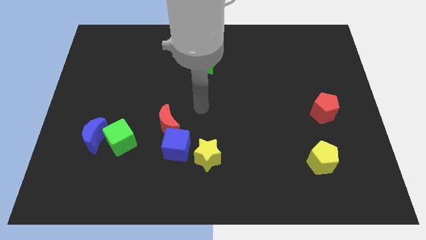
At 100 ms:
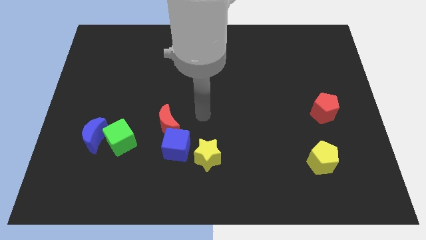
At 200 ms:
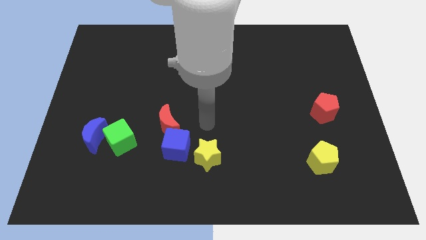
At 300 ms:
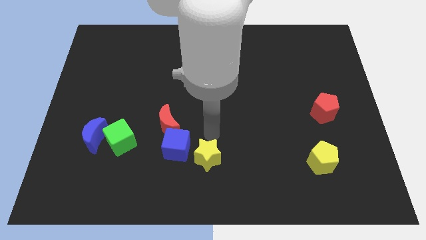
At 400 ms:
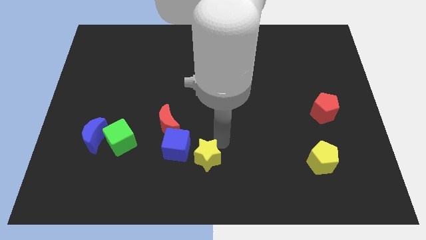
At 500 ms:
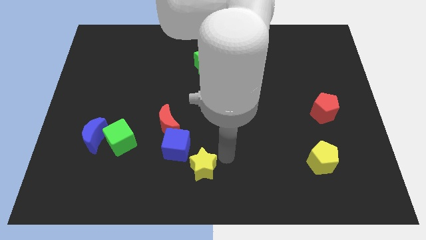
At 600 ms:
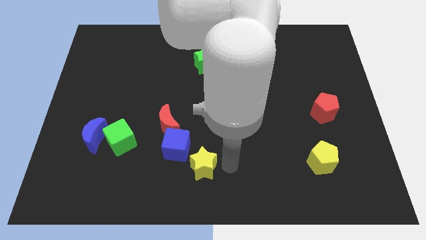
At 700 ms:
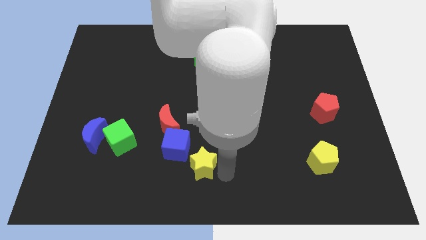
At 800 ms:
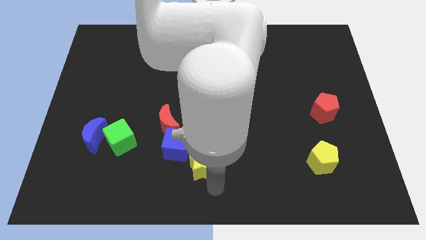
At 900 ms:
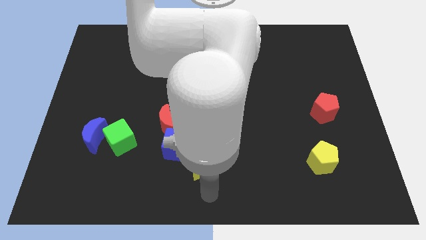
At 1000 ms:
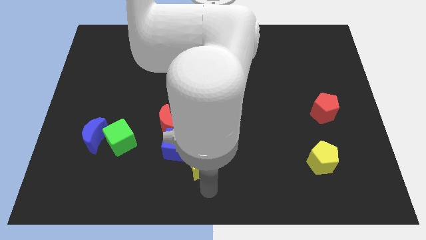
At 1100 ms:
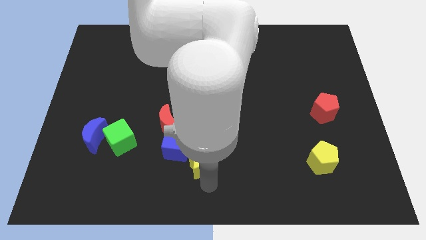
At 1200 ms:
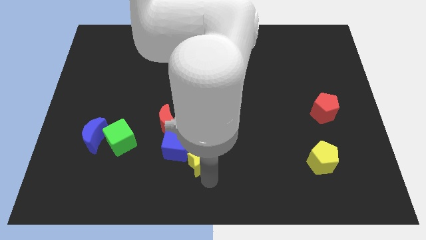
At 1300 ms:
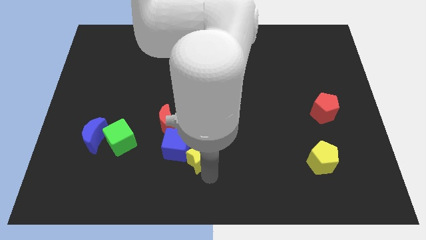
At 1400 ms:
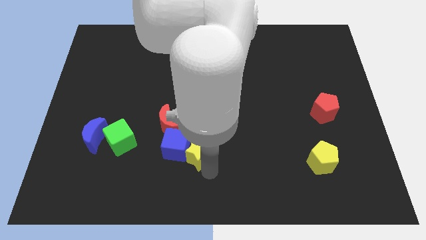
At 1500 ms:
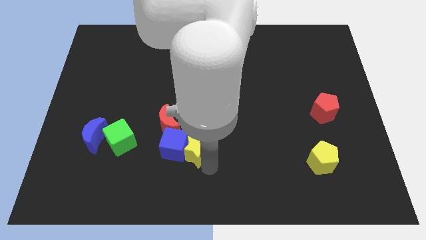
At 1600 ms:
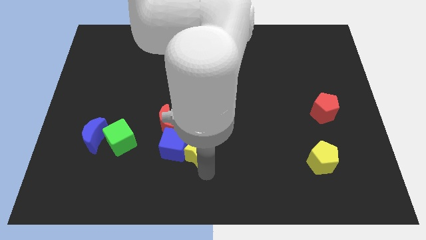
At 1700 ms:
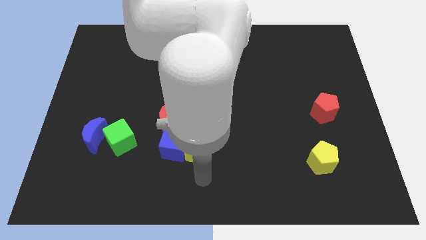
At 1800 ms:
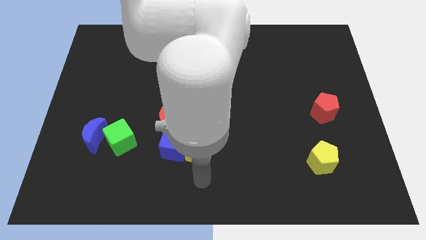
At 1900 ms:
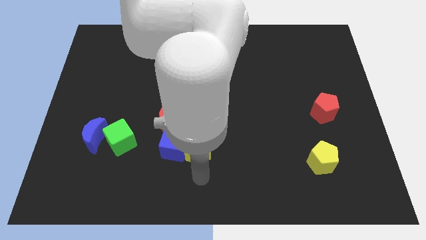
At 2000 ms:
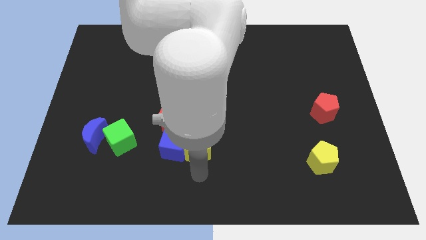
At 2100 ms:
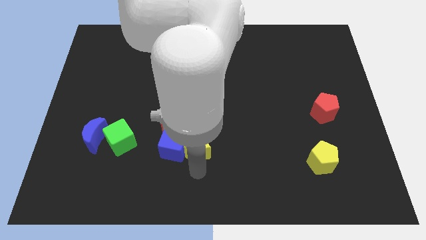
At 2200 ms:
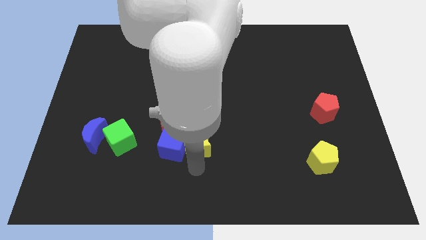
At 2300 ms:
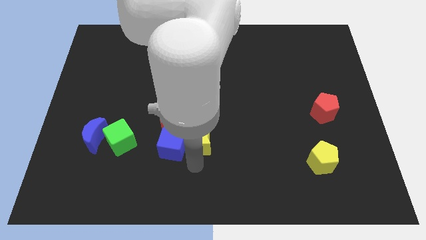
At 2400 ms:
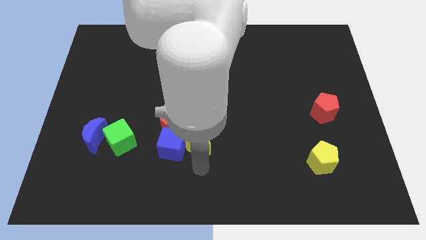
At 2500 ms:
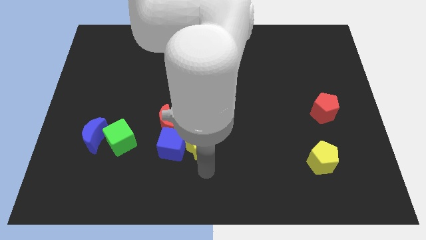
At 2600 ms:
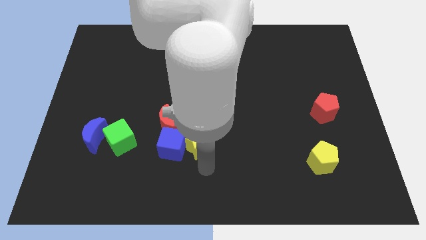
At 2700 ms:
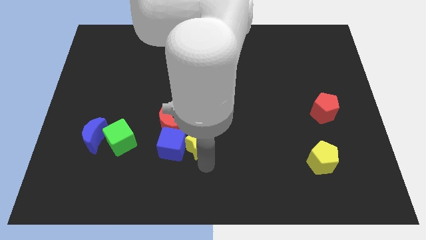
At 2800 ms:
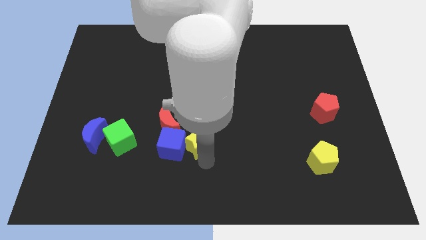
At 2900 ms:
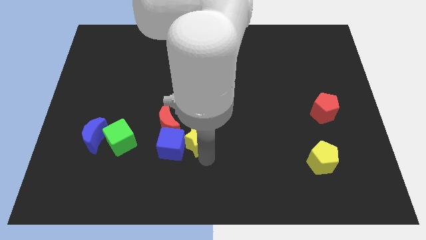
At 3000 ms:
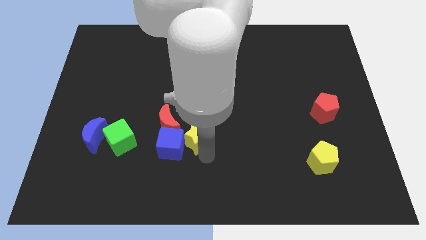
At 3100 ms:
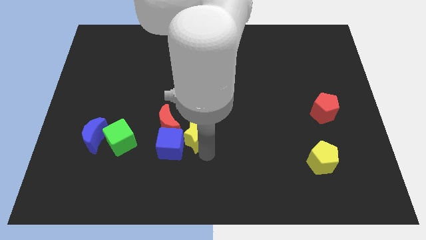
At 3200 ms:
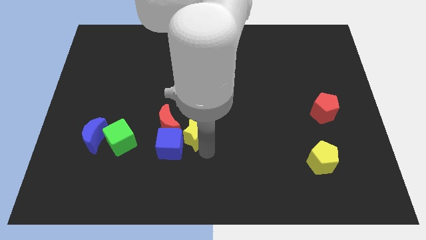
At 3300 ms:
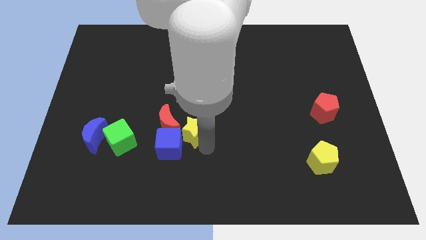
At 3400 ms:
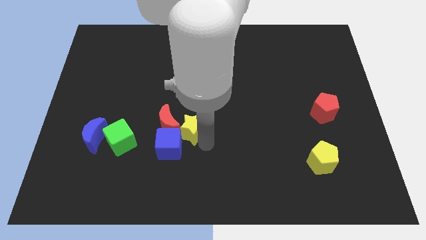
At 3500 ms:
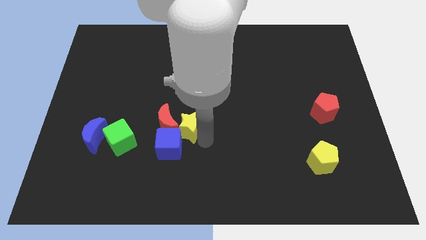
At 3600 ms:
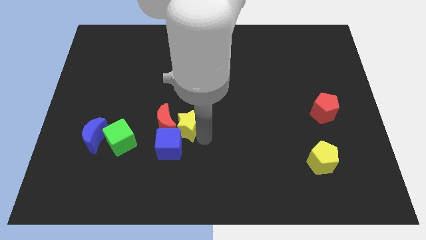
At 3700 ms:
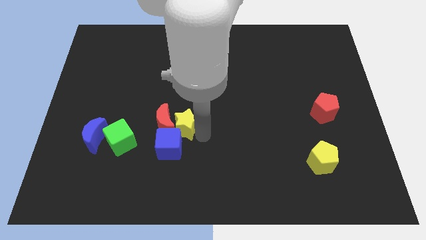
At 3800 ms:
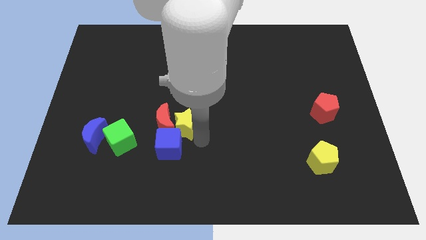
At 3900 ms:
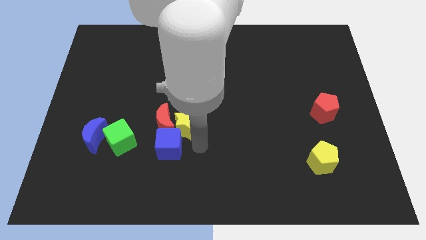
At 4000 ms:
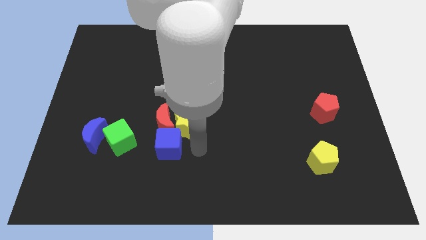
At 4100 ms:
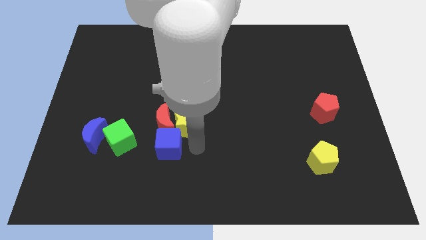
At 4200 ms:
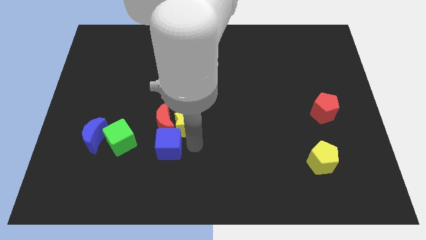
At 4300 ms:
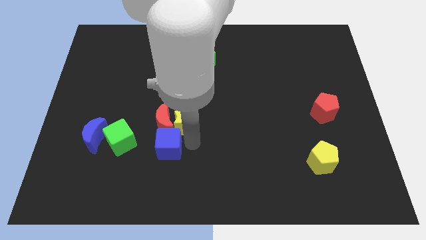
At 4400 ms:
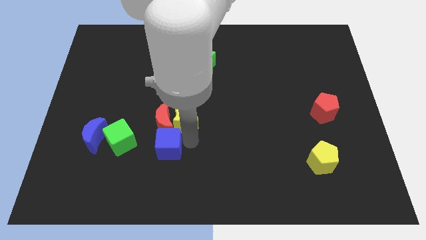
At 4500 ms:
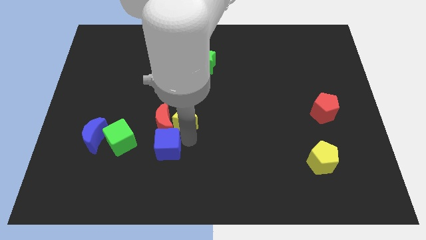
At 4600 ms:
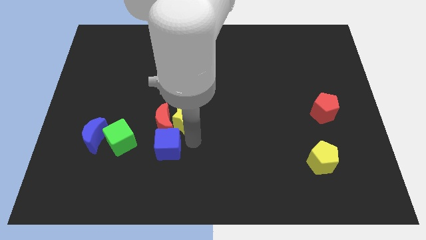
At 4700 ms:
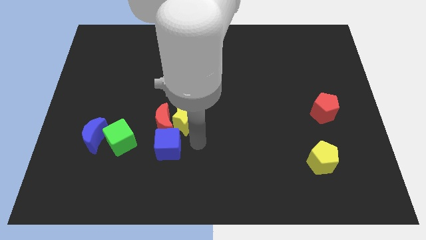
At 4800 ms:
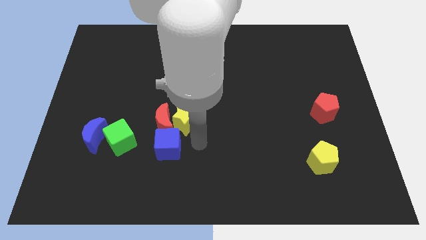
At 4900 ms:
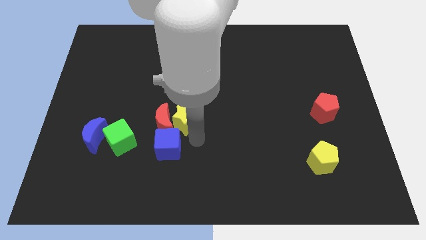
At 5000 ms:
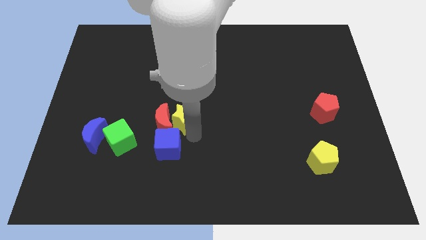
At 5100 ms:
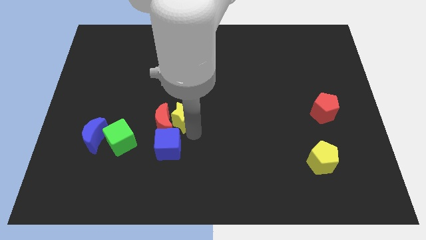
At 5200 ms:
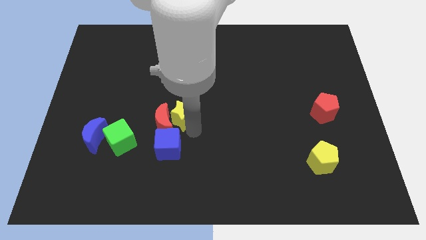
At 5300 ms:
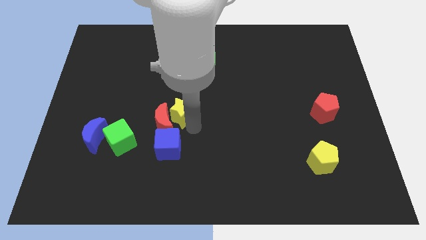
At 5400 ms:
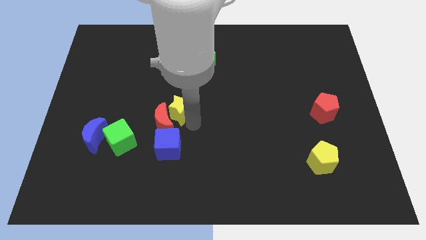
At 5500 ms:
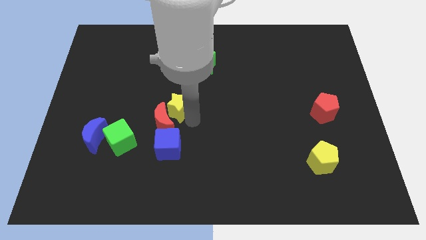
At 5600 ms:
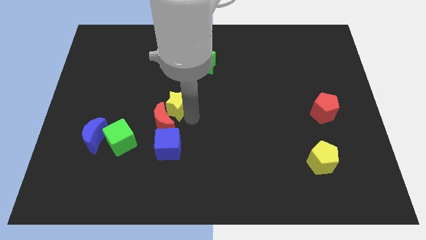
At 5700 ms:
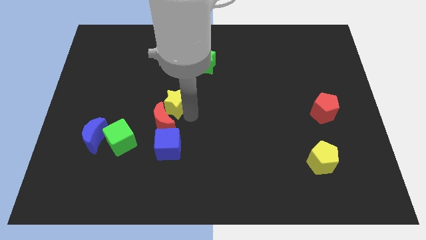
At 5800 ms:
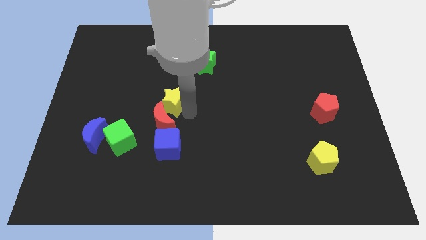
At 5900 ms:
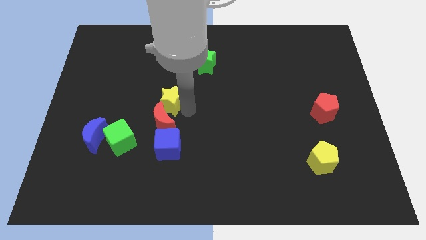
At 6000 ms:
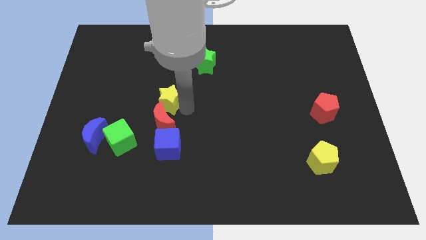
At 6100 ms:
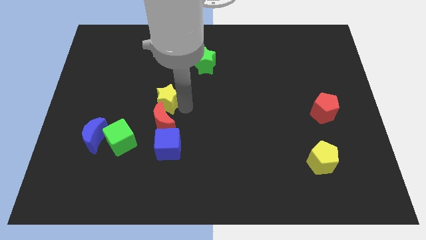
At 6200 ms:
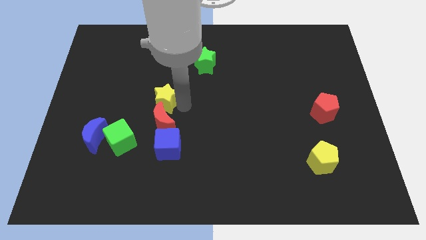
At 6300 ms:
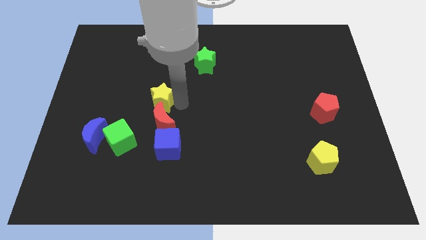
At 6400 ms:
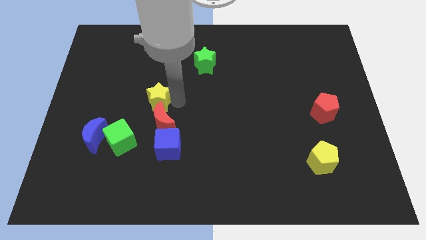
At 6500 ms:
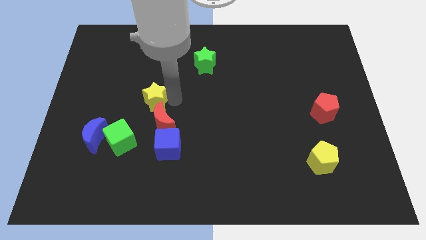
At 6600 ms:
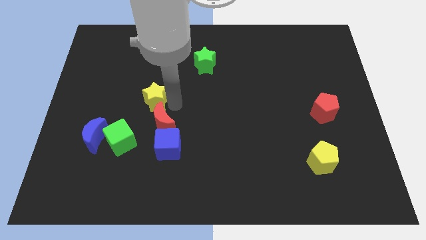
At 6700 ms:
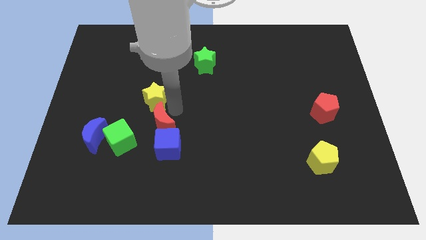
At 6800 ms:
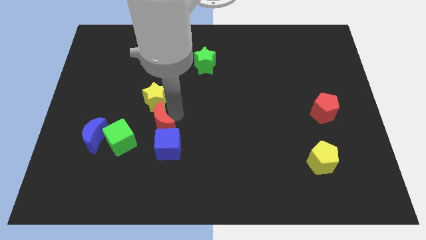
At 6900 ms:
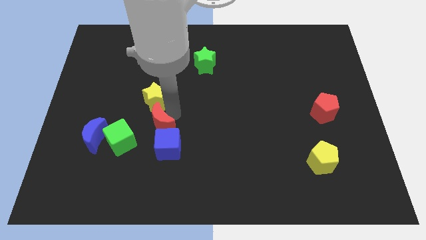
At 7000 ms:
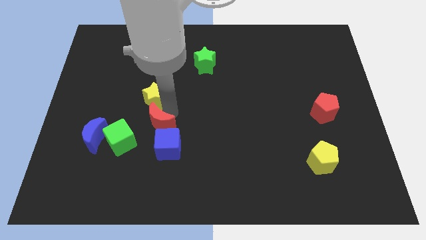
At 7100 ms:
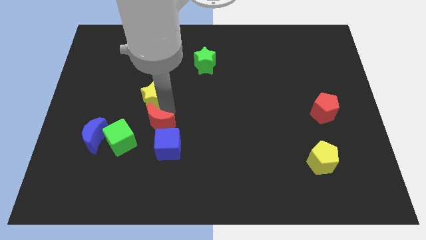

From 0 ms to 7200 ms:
slide the yellow star upwards and to the left diagonally

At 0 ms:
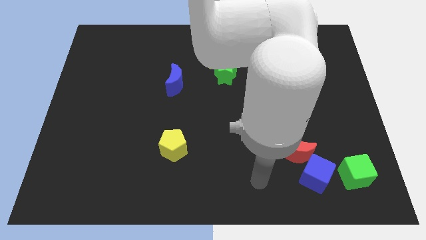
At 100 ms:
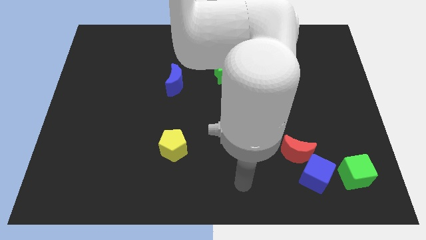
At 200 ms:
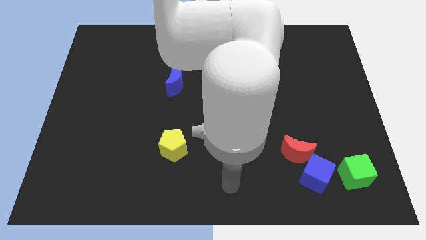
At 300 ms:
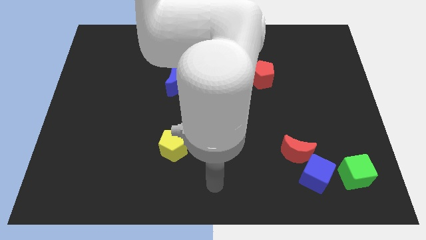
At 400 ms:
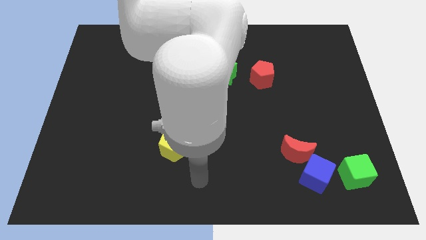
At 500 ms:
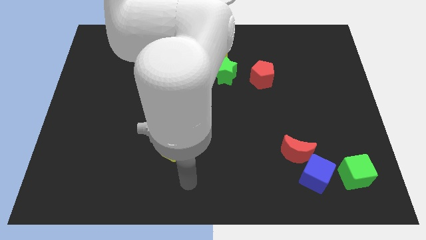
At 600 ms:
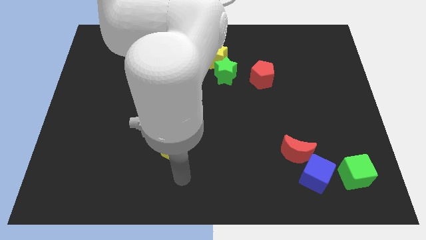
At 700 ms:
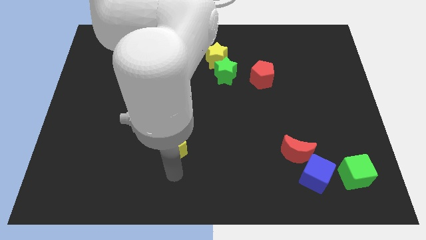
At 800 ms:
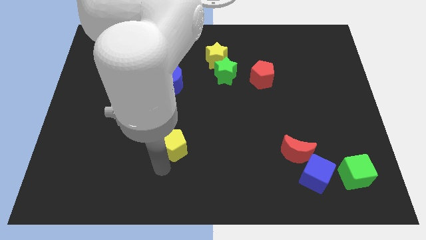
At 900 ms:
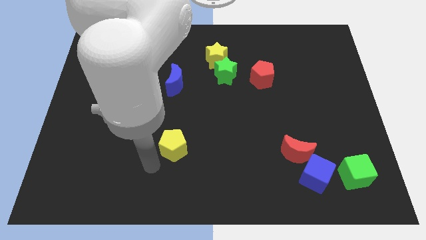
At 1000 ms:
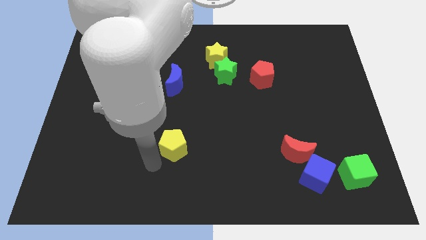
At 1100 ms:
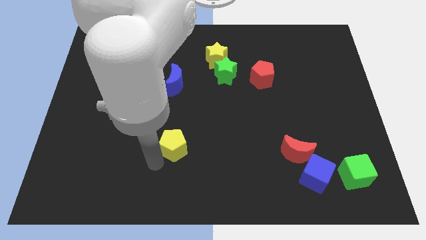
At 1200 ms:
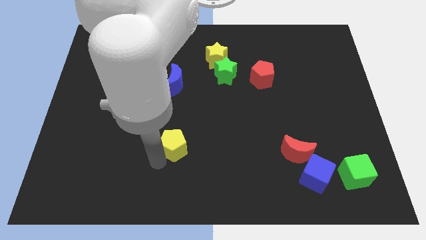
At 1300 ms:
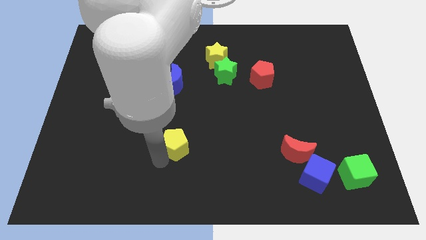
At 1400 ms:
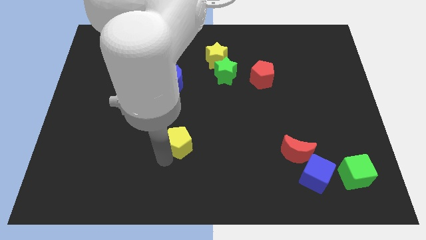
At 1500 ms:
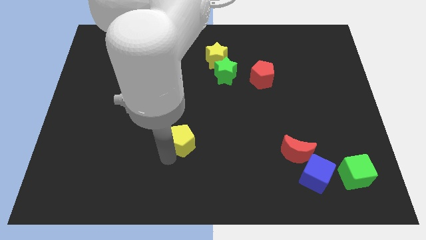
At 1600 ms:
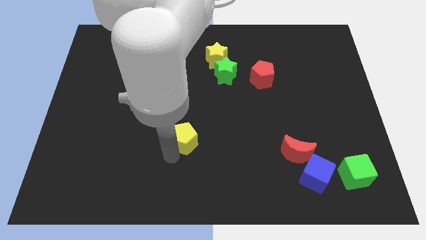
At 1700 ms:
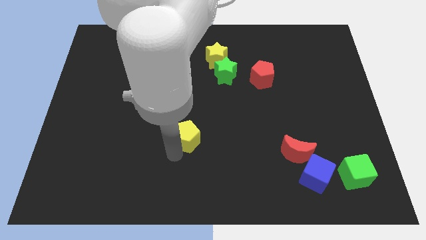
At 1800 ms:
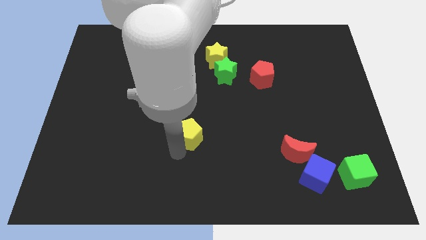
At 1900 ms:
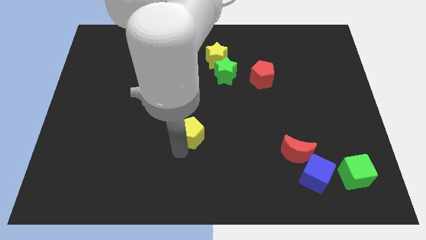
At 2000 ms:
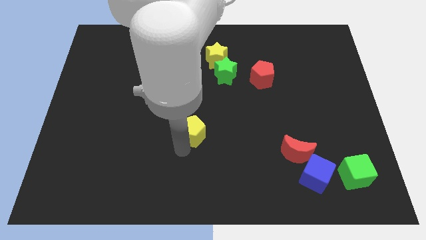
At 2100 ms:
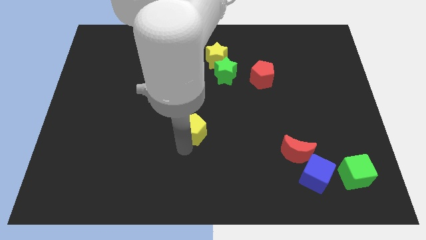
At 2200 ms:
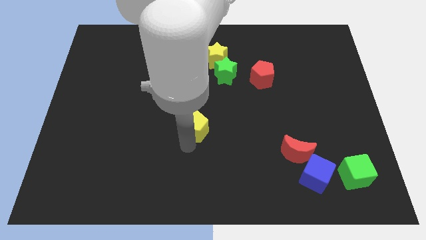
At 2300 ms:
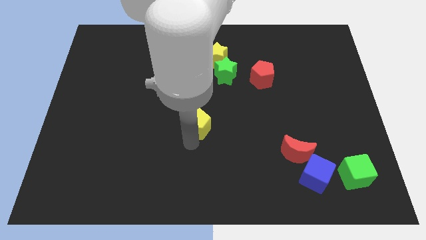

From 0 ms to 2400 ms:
slightly move the yellow pentagon diagonally upwards and right
